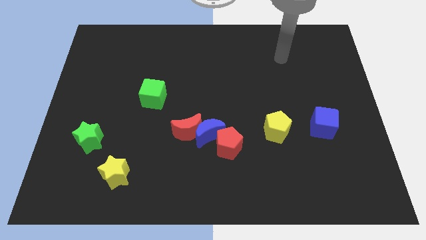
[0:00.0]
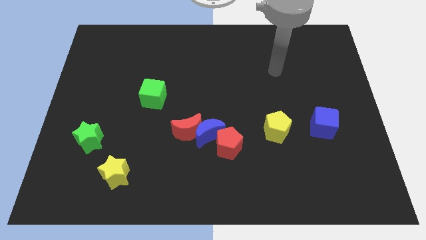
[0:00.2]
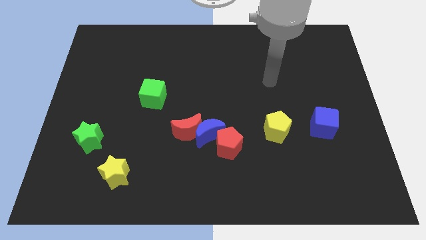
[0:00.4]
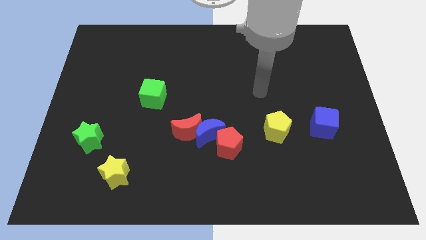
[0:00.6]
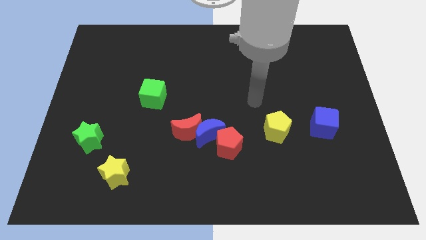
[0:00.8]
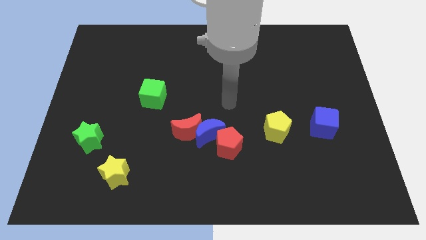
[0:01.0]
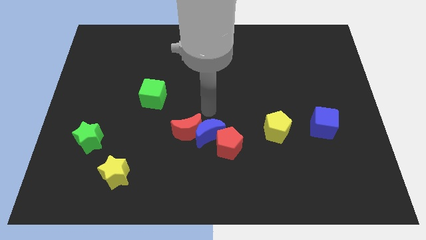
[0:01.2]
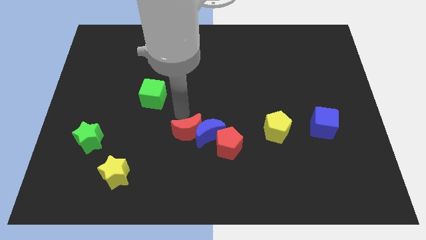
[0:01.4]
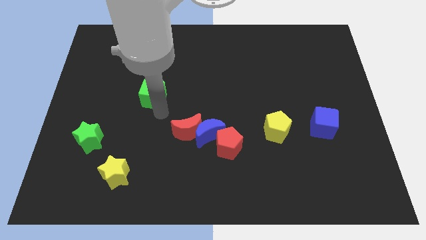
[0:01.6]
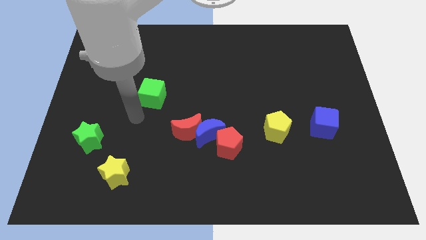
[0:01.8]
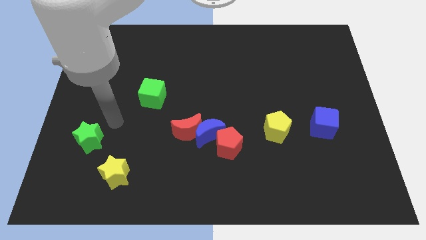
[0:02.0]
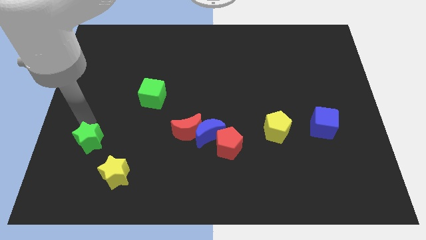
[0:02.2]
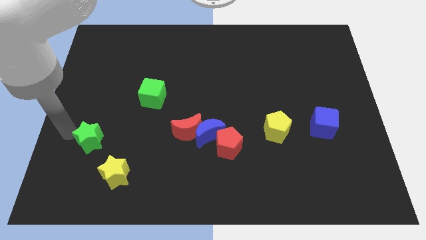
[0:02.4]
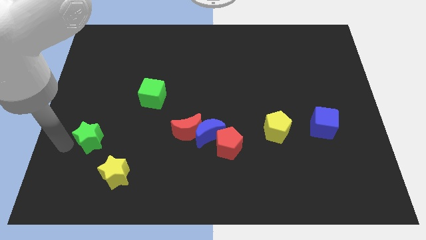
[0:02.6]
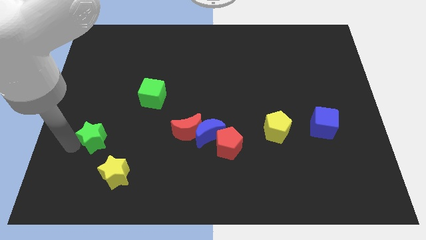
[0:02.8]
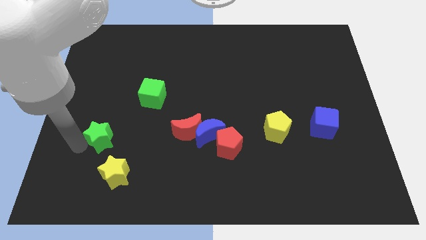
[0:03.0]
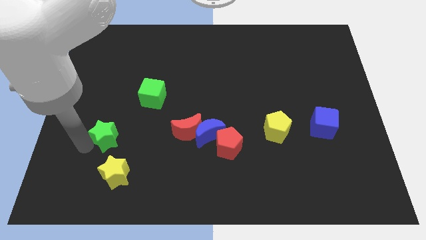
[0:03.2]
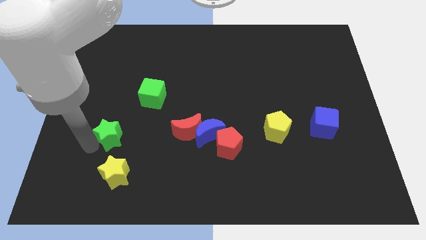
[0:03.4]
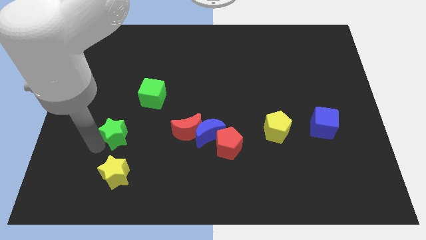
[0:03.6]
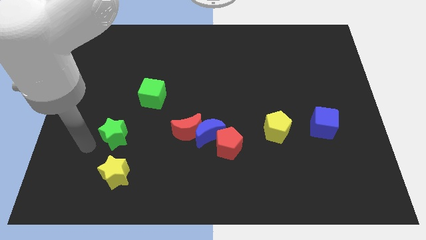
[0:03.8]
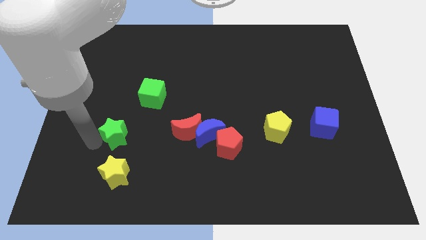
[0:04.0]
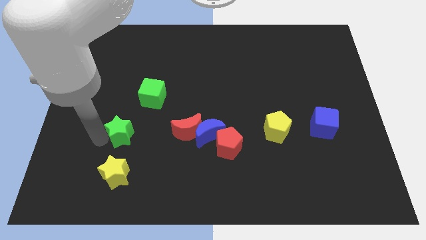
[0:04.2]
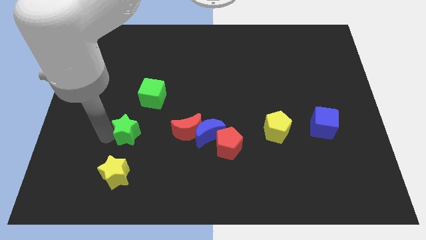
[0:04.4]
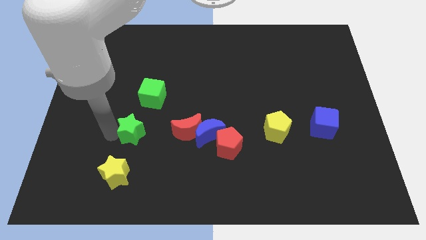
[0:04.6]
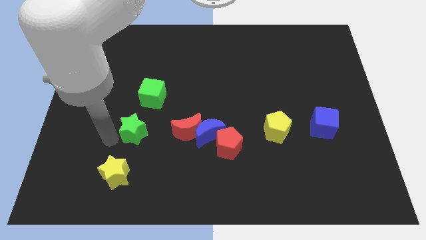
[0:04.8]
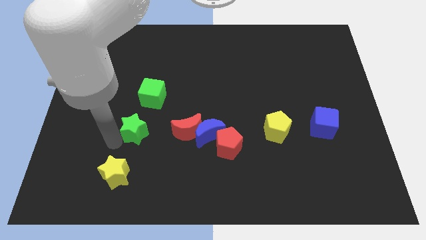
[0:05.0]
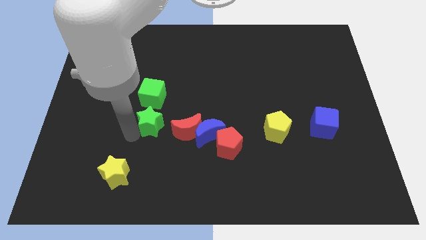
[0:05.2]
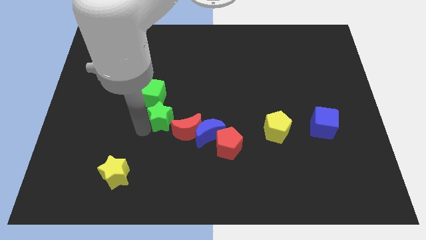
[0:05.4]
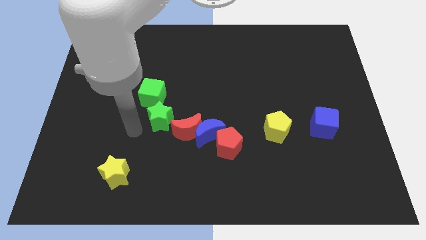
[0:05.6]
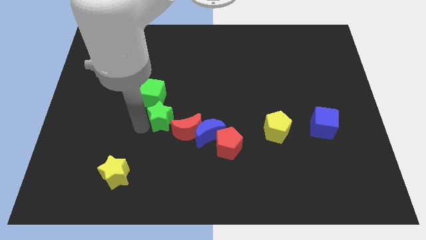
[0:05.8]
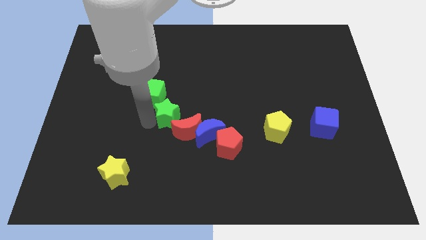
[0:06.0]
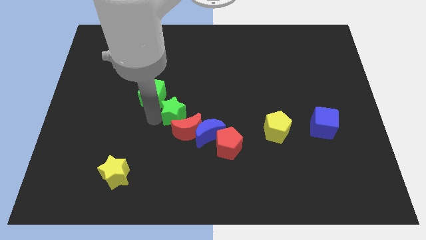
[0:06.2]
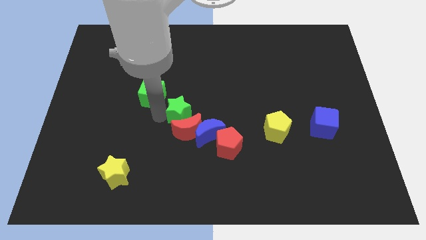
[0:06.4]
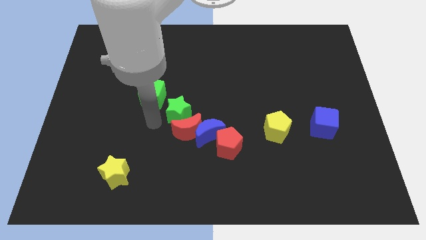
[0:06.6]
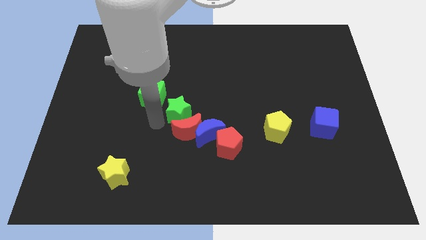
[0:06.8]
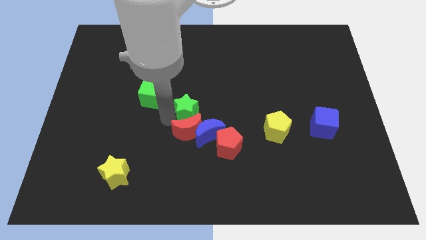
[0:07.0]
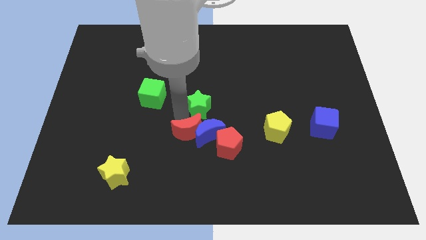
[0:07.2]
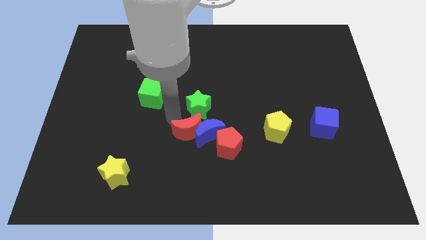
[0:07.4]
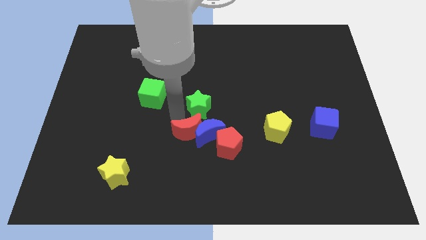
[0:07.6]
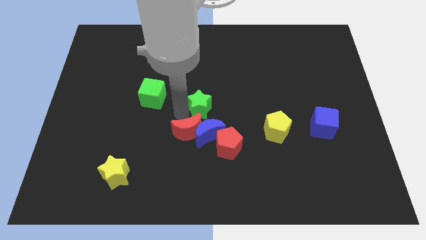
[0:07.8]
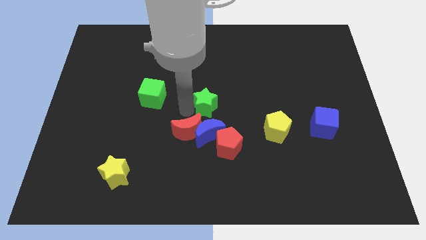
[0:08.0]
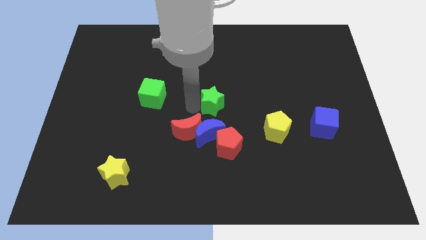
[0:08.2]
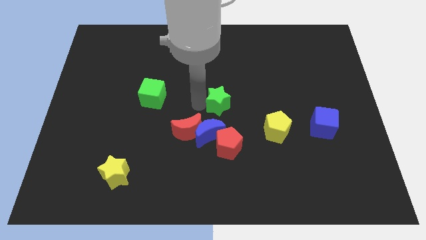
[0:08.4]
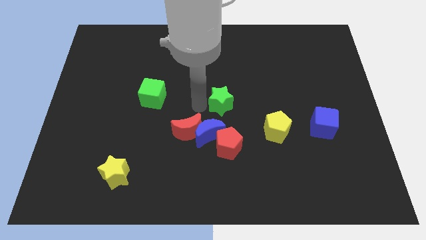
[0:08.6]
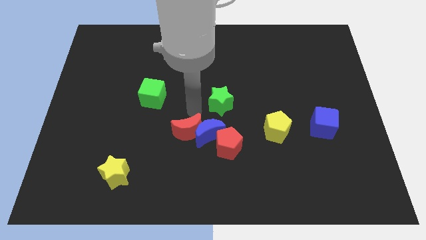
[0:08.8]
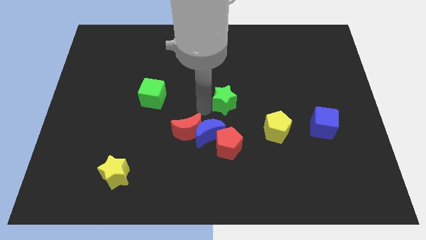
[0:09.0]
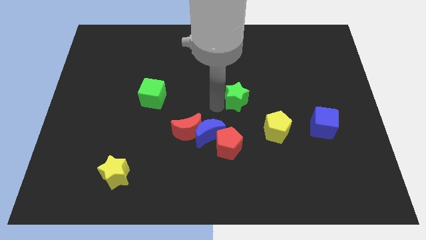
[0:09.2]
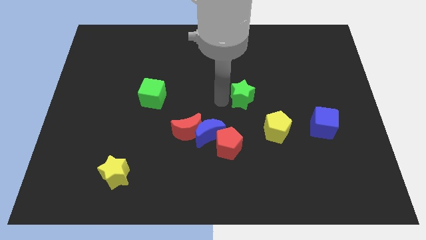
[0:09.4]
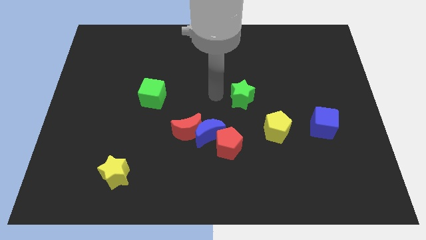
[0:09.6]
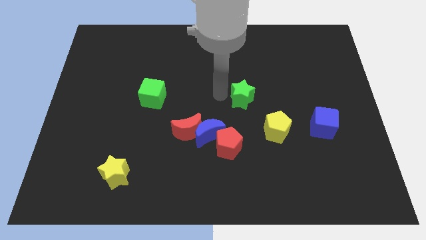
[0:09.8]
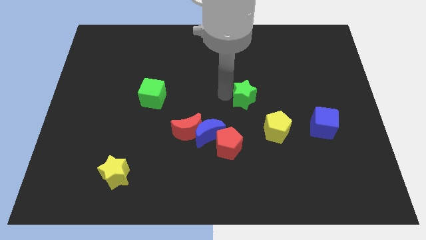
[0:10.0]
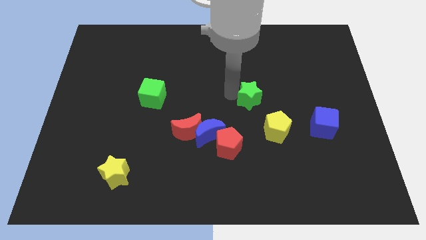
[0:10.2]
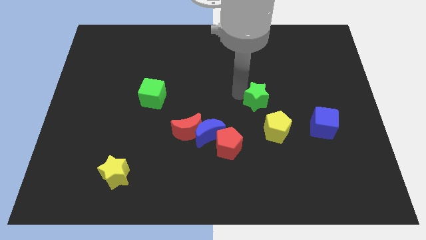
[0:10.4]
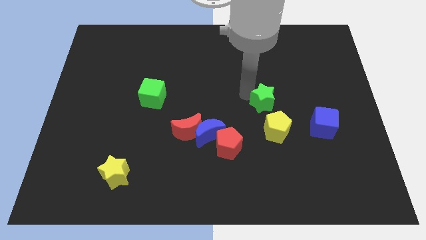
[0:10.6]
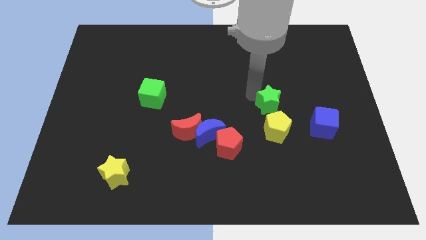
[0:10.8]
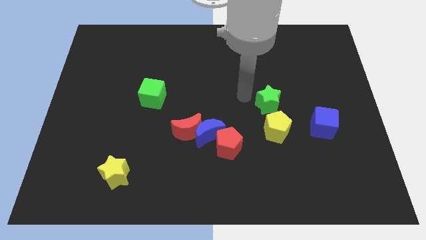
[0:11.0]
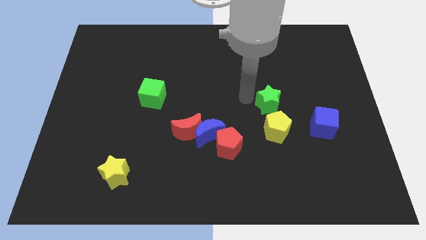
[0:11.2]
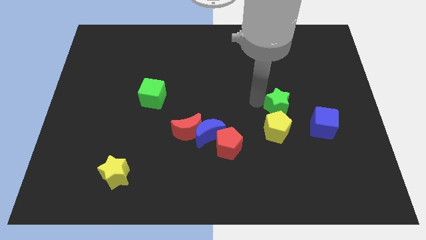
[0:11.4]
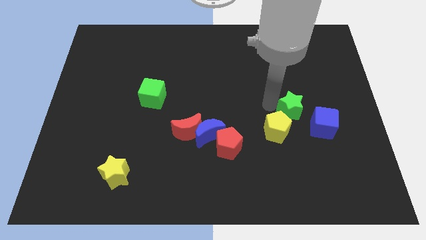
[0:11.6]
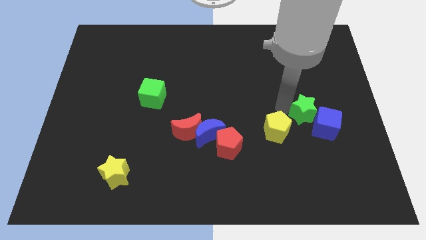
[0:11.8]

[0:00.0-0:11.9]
push the green star to the blue cube
